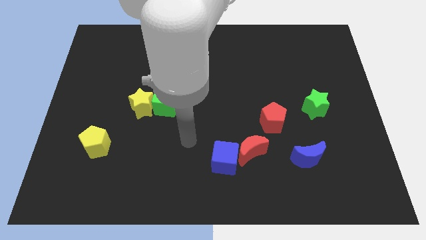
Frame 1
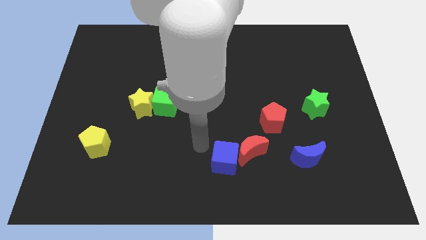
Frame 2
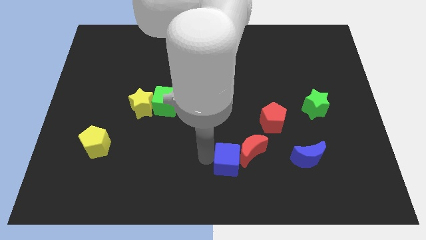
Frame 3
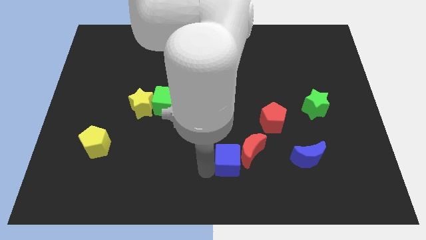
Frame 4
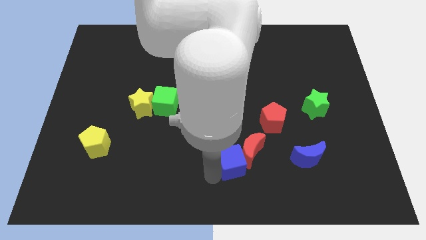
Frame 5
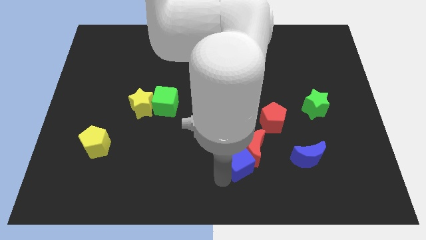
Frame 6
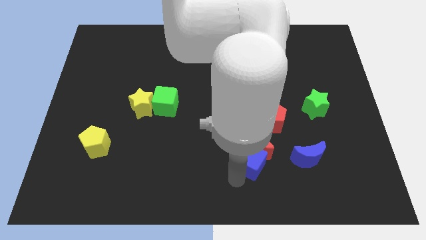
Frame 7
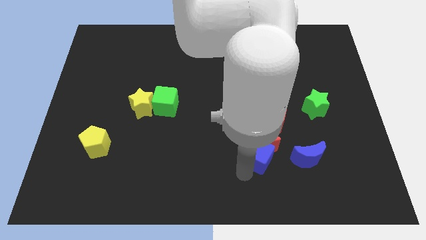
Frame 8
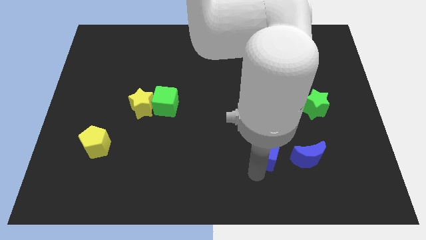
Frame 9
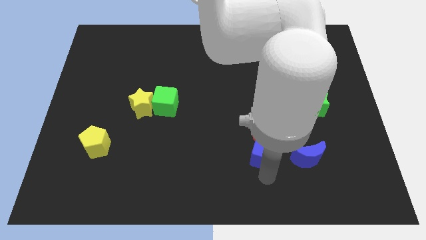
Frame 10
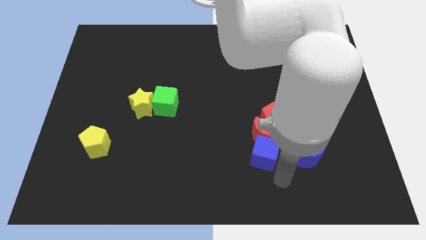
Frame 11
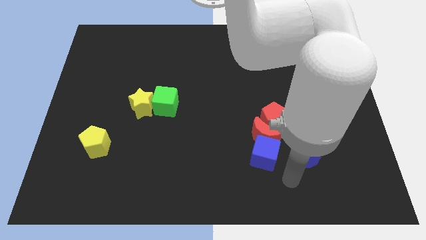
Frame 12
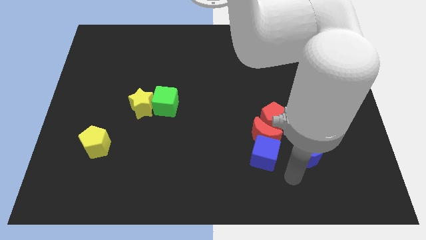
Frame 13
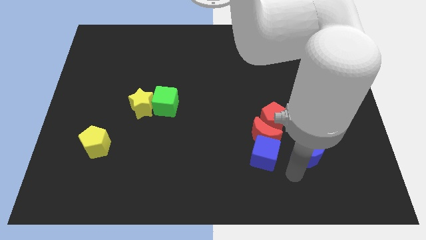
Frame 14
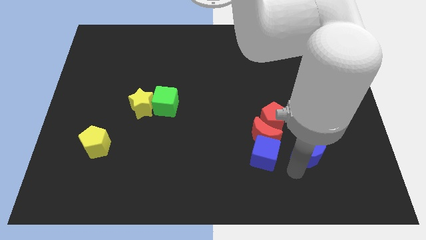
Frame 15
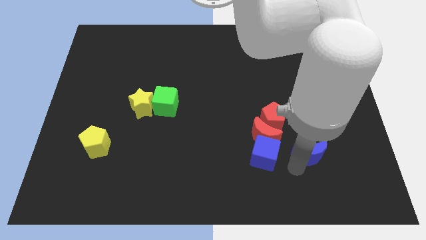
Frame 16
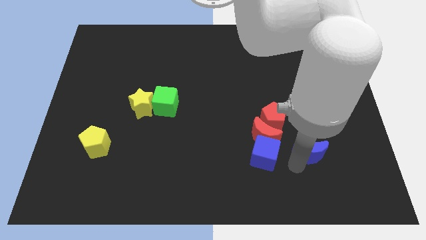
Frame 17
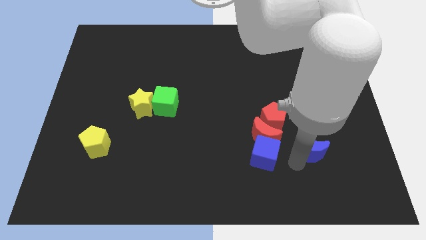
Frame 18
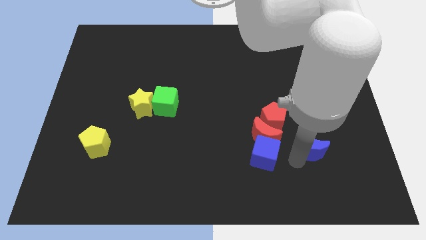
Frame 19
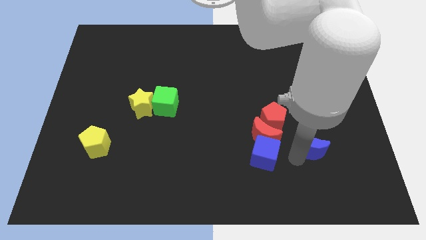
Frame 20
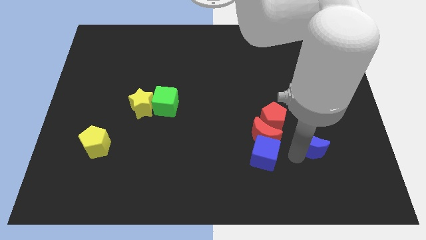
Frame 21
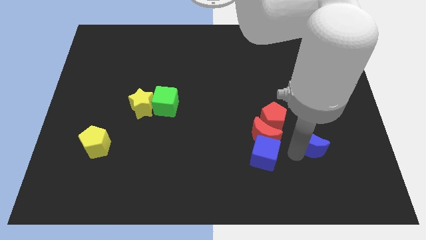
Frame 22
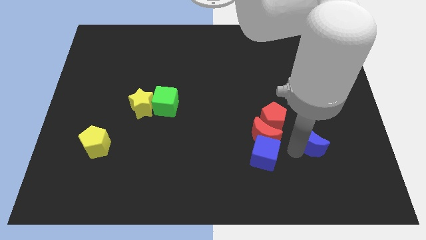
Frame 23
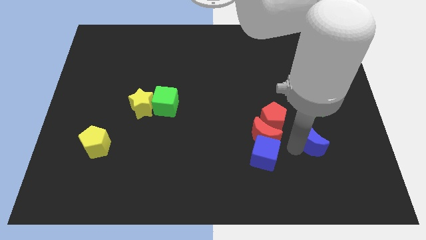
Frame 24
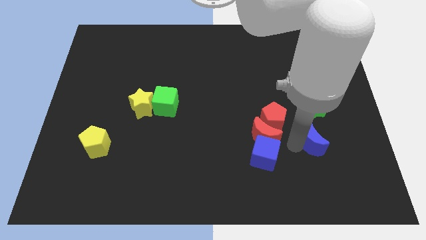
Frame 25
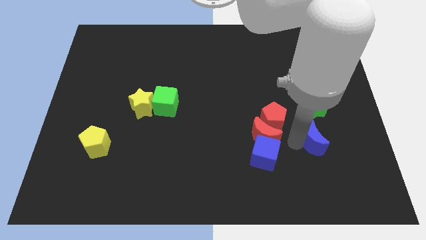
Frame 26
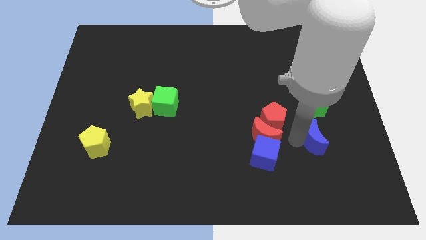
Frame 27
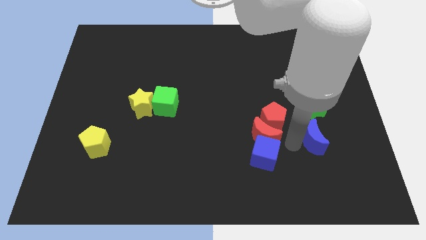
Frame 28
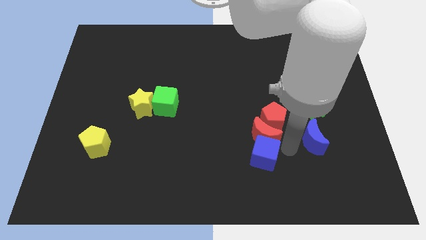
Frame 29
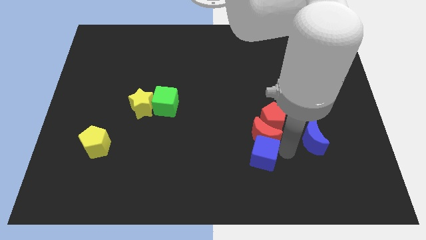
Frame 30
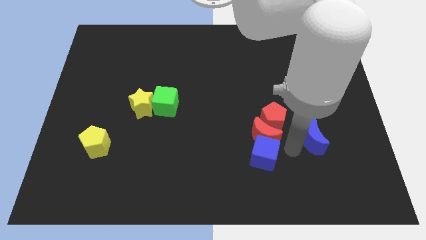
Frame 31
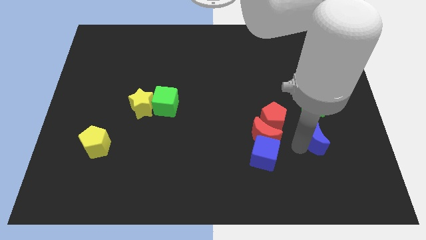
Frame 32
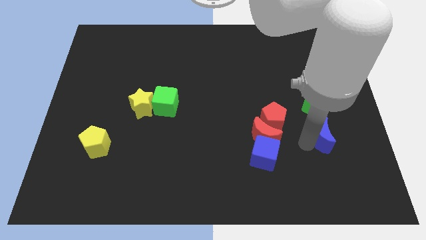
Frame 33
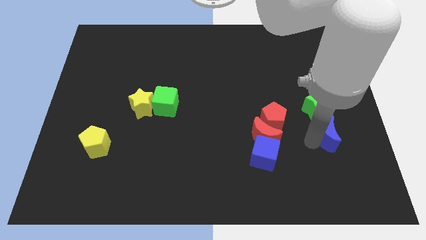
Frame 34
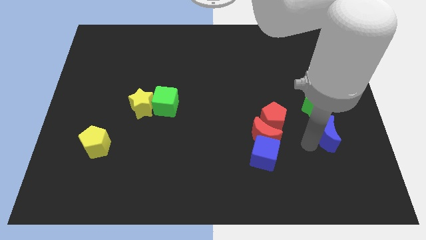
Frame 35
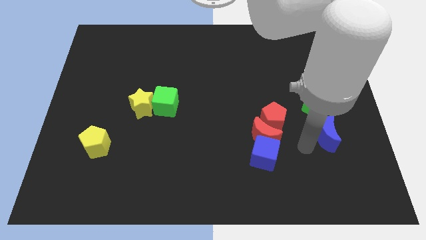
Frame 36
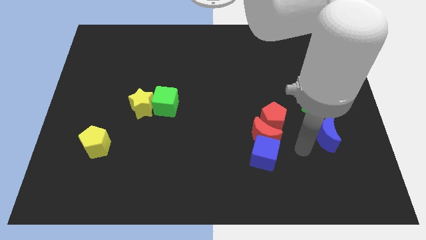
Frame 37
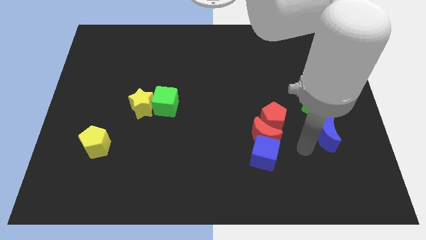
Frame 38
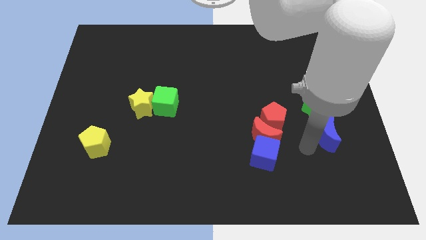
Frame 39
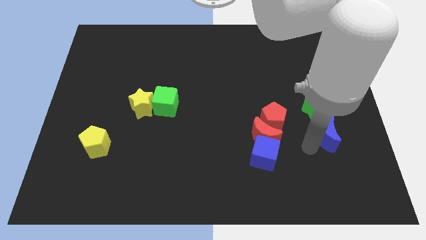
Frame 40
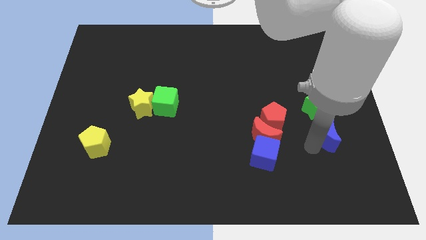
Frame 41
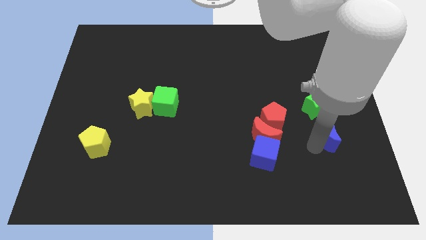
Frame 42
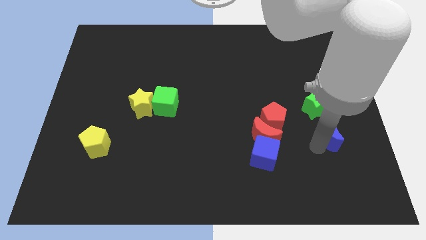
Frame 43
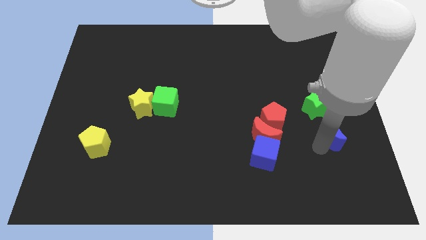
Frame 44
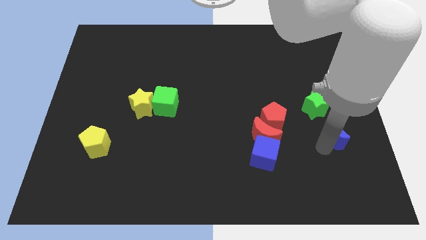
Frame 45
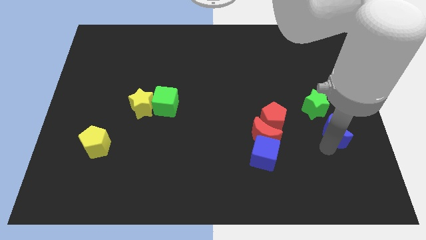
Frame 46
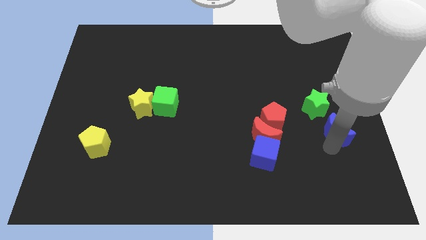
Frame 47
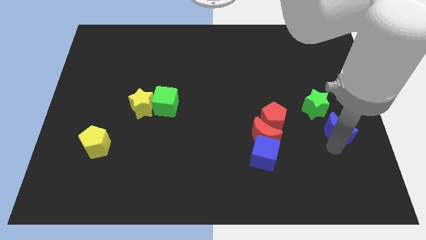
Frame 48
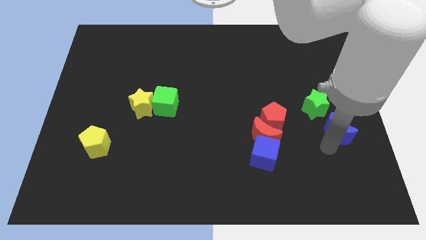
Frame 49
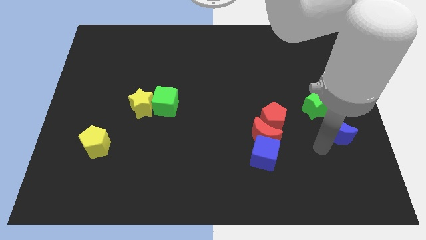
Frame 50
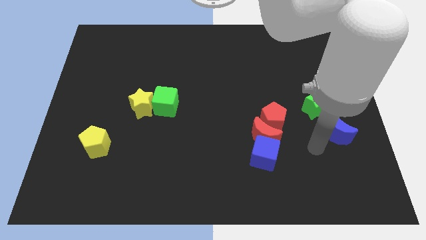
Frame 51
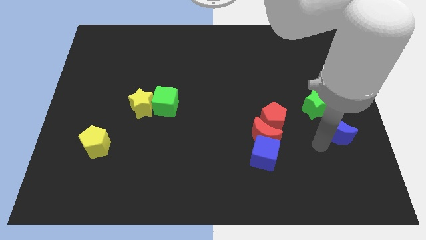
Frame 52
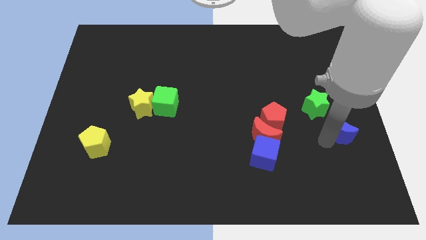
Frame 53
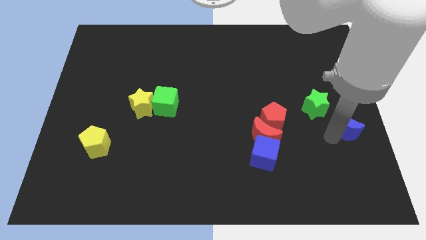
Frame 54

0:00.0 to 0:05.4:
push the blue moon to the right side of the board
